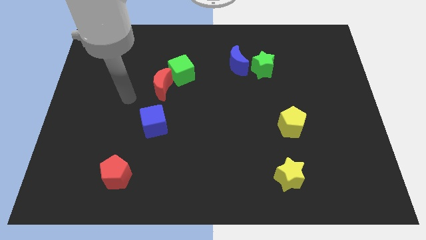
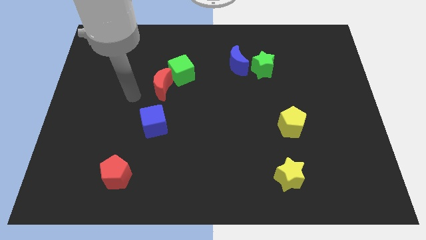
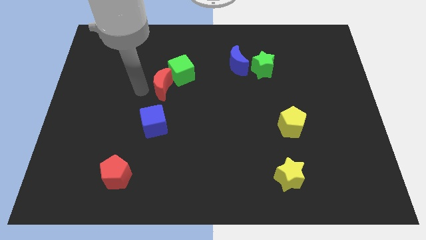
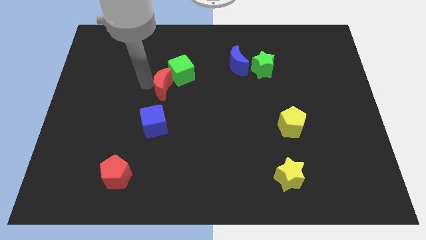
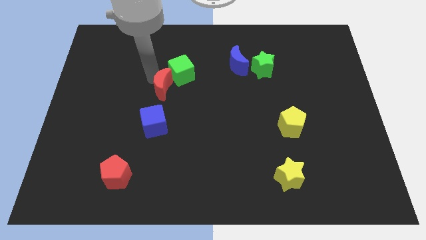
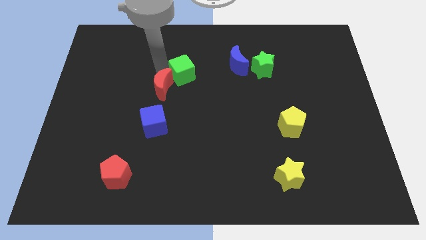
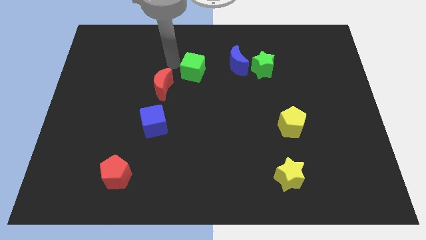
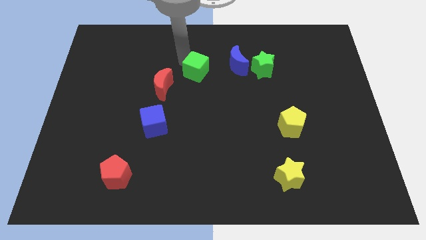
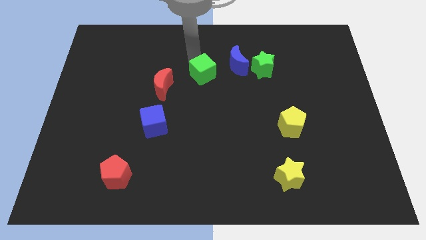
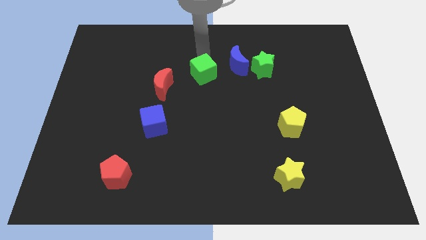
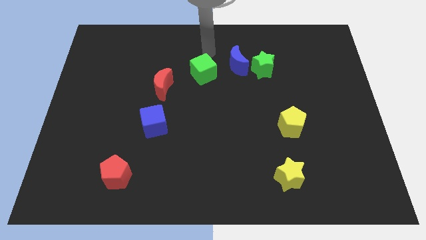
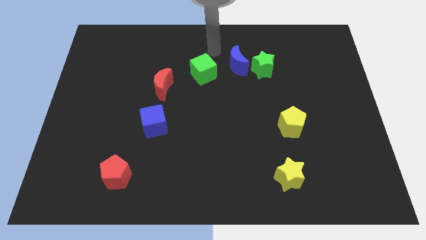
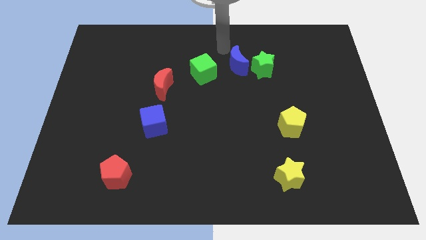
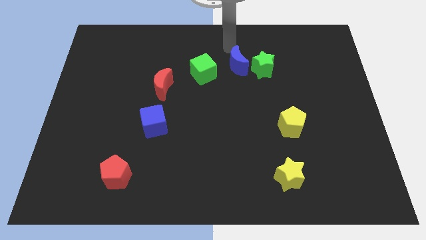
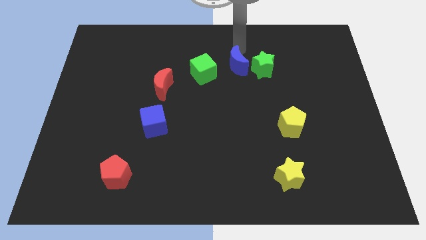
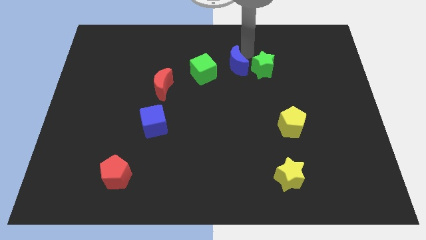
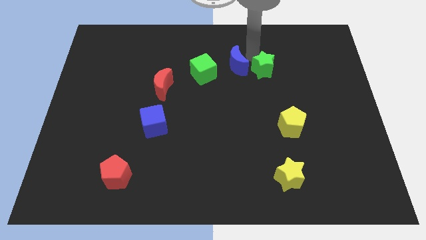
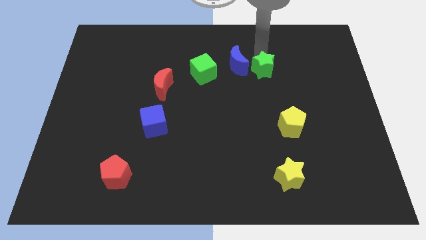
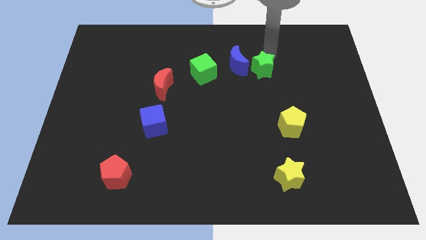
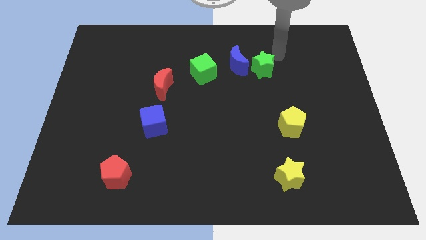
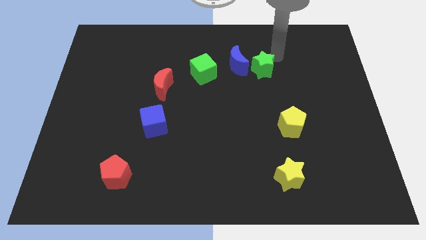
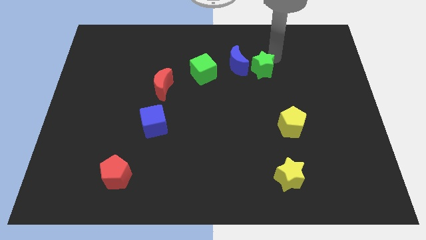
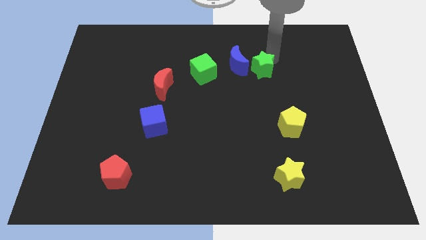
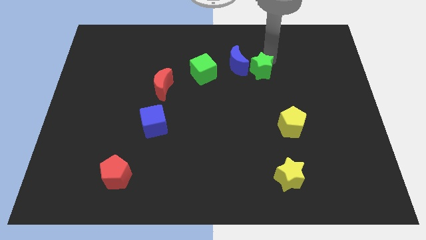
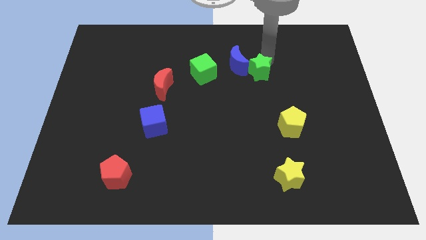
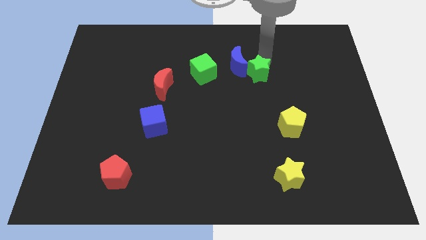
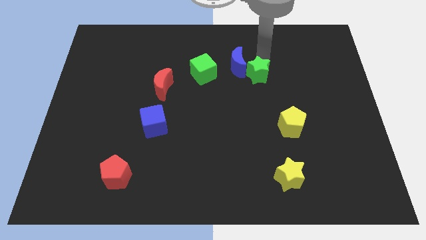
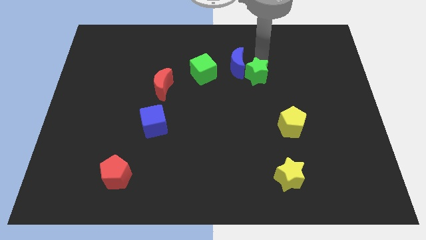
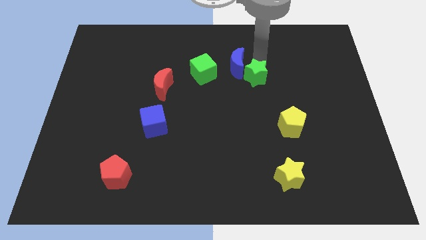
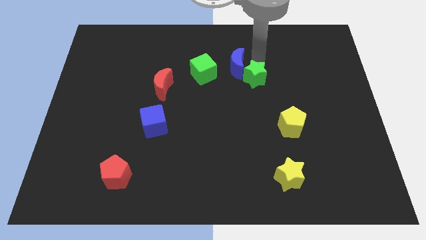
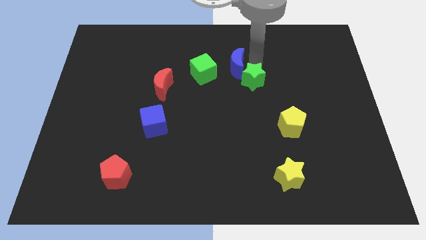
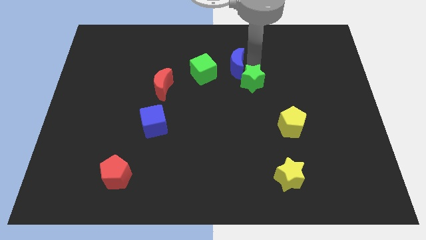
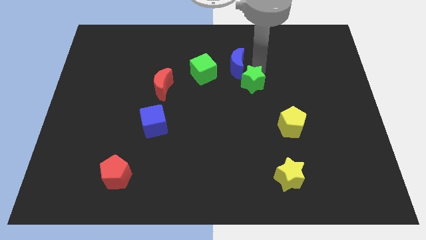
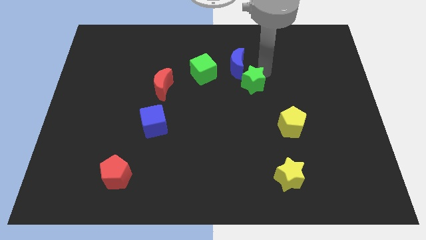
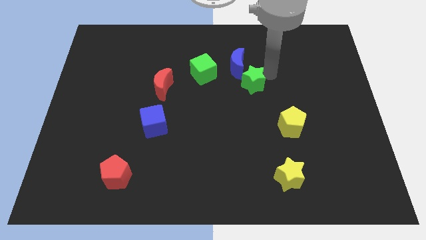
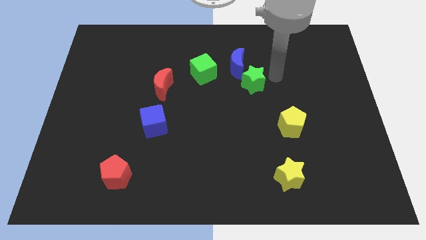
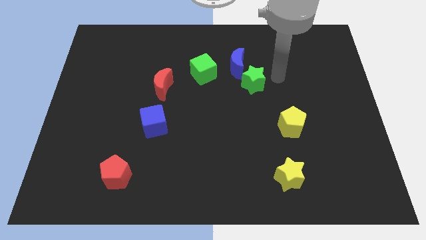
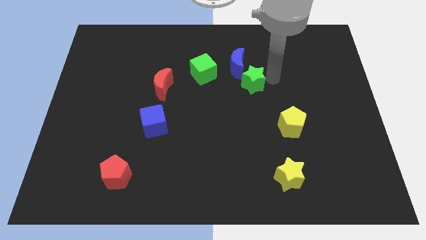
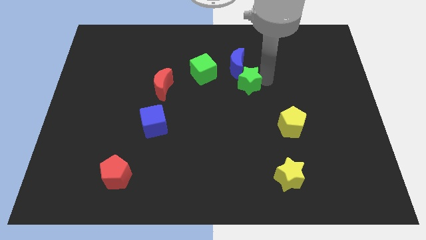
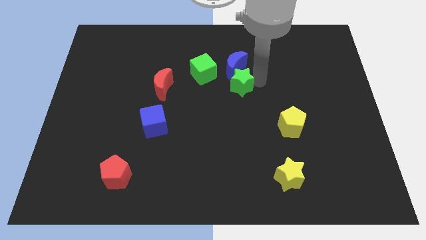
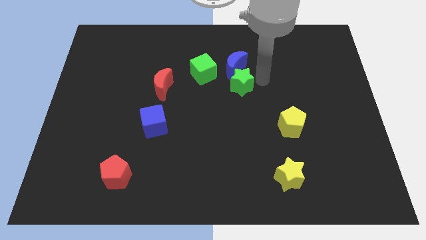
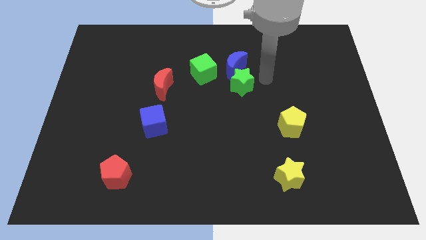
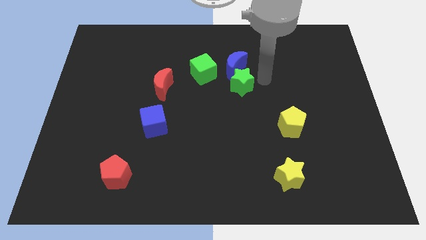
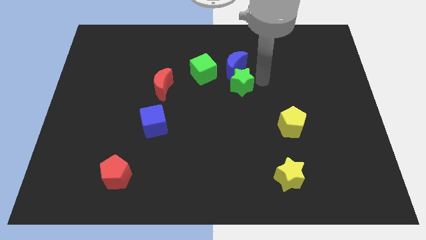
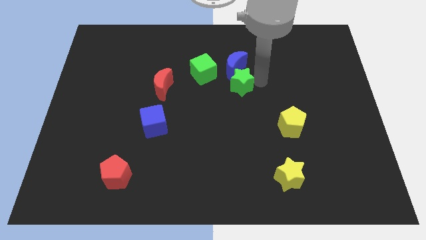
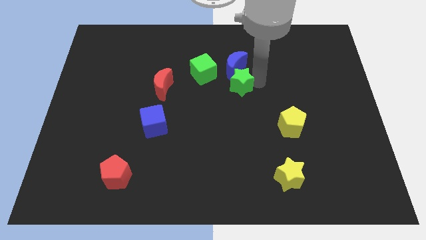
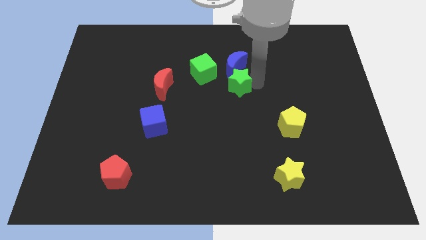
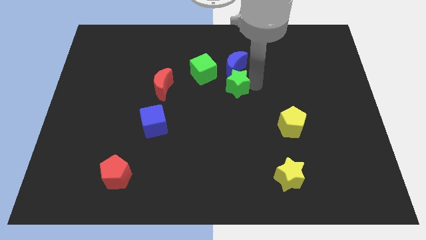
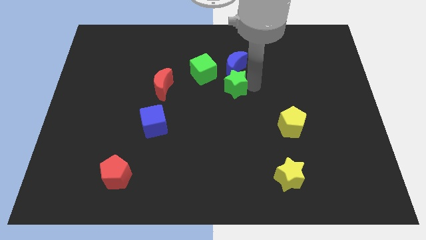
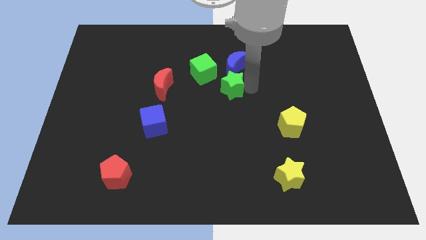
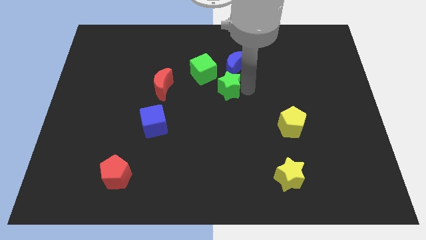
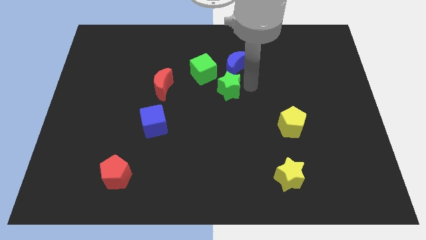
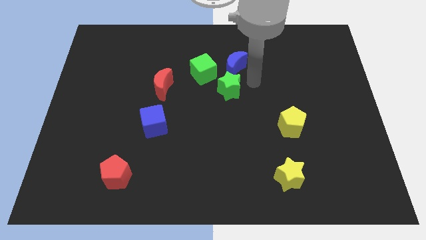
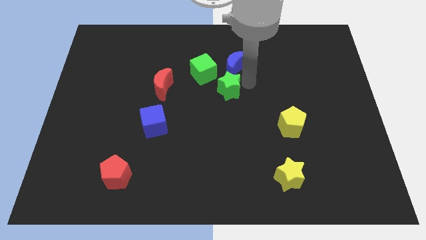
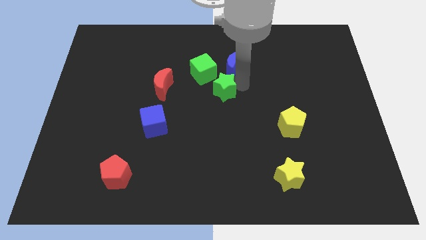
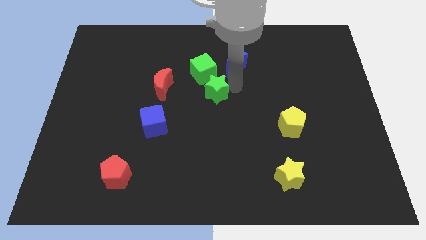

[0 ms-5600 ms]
put the green star to the bottom of the green cube

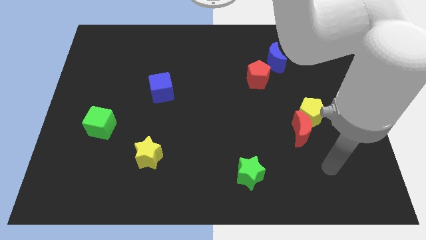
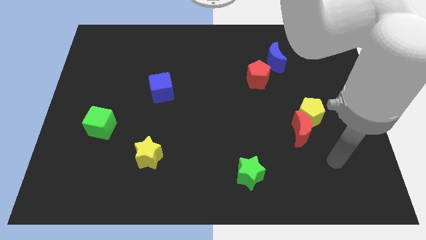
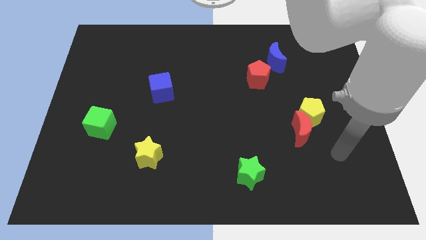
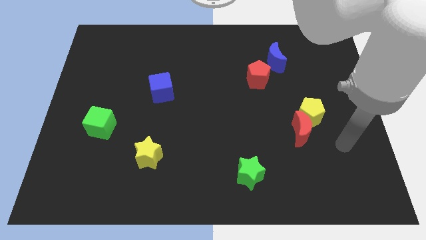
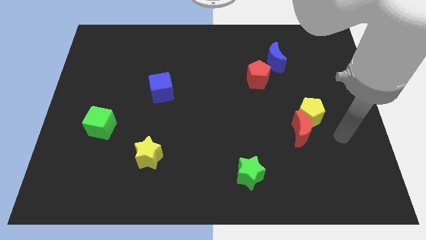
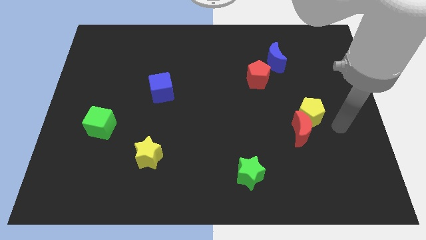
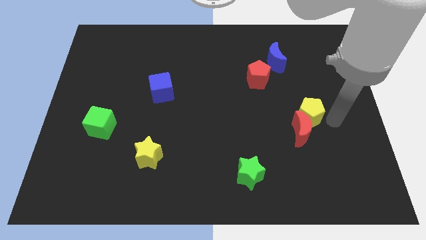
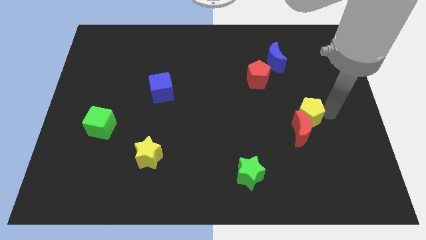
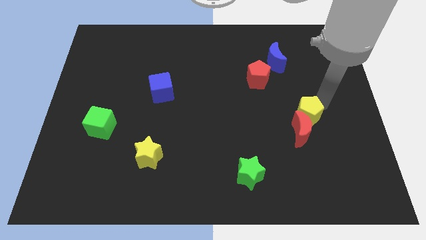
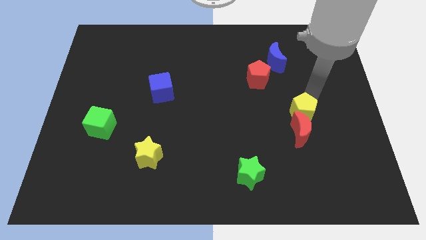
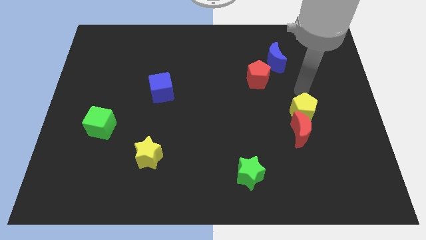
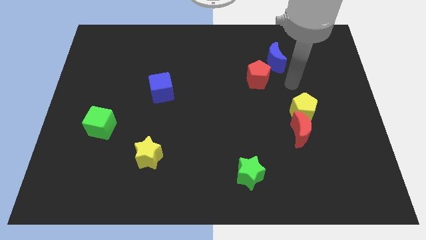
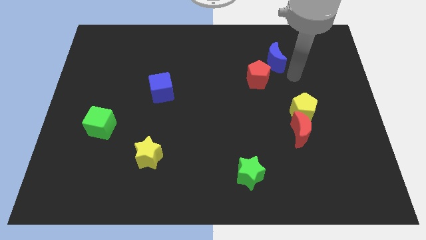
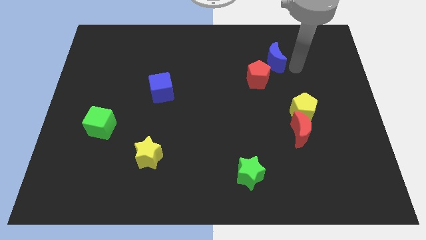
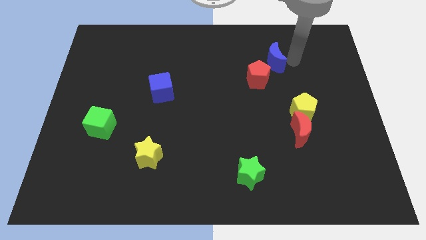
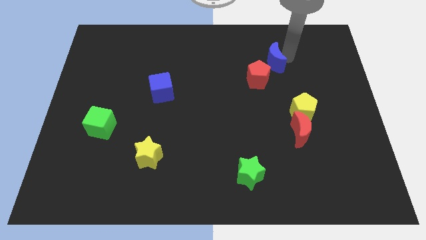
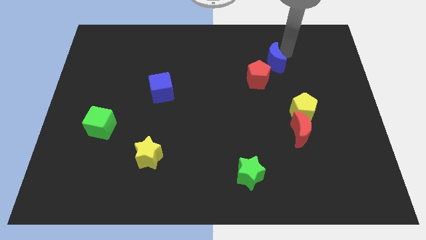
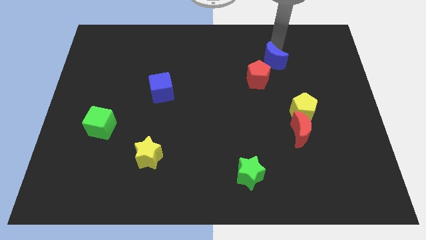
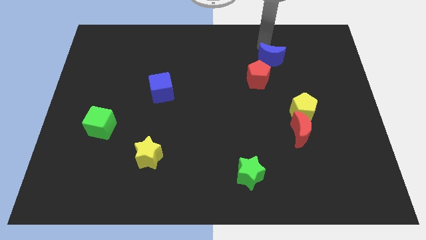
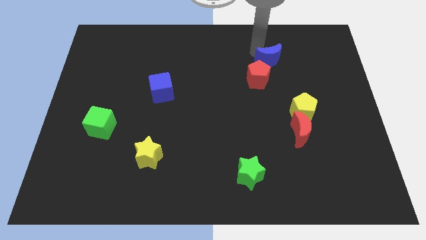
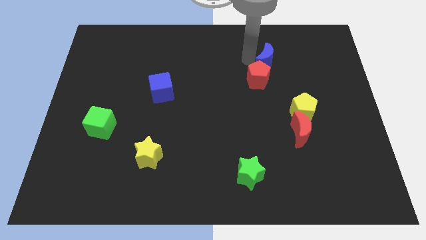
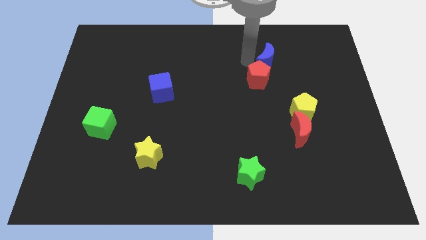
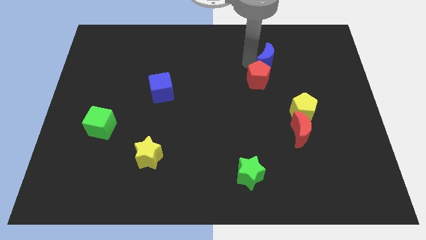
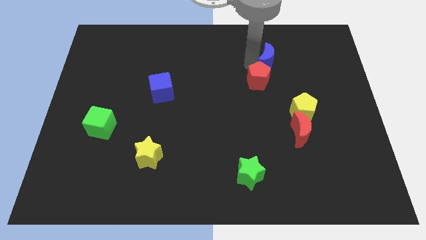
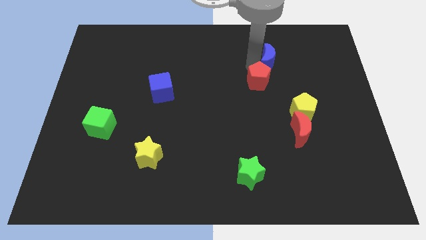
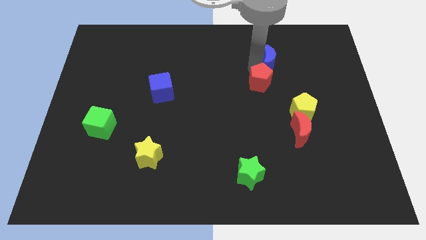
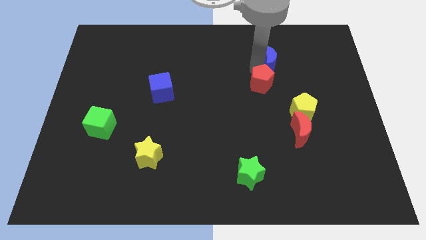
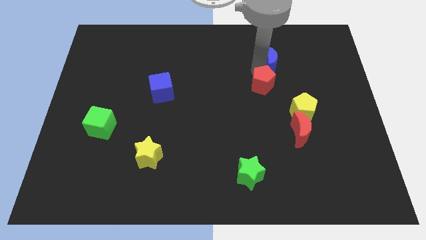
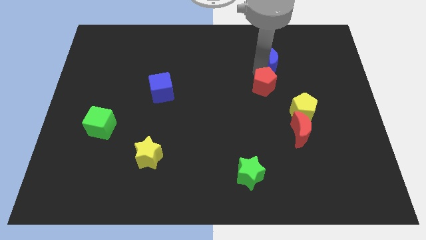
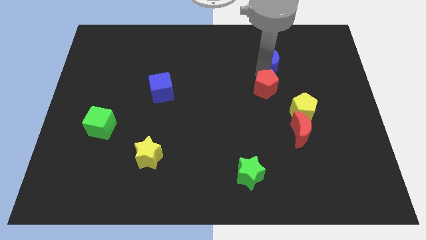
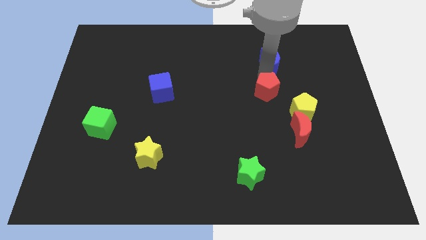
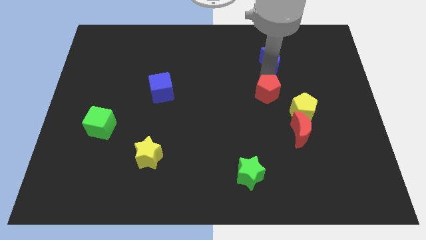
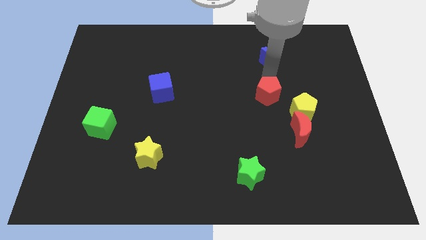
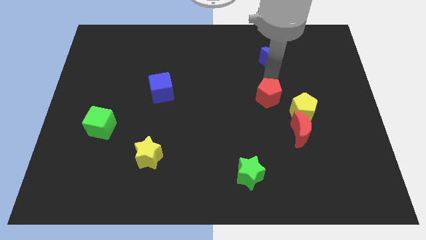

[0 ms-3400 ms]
move the red pentagon diagonally up and to the left of the red moon
